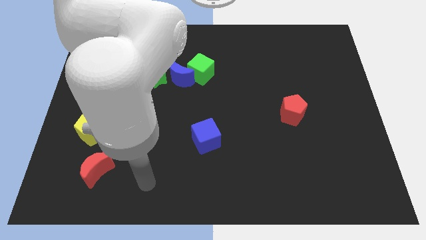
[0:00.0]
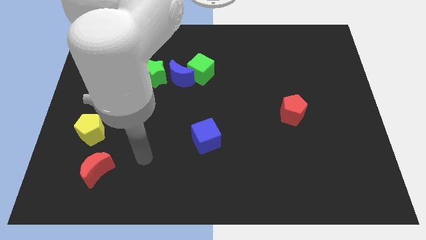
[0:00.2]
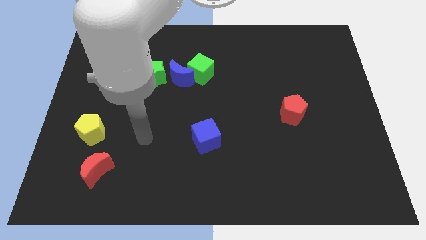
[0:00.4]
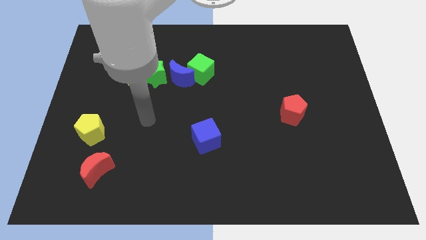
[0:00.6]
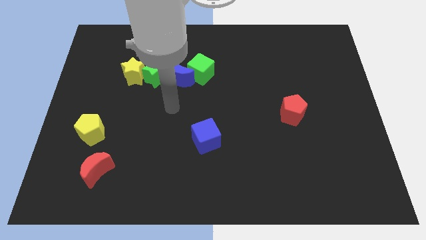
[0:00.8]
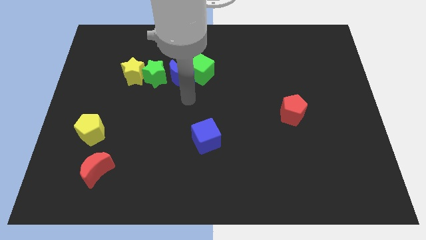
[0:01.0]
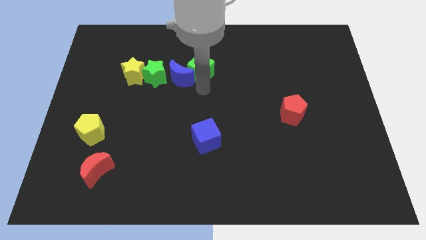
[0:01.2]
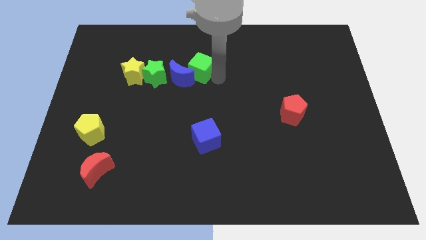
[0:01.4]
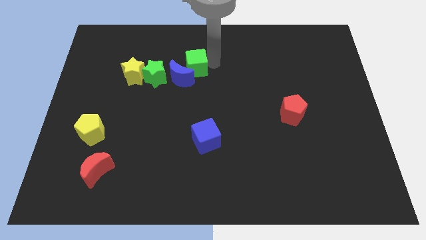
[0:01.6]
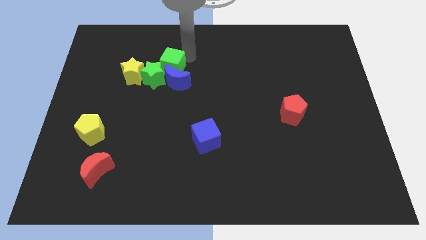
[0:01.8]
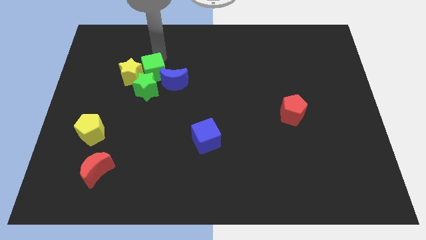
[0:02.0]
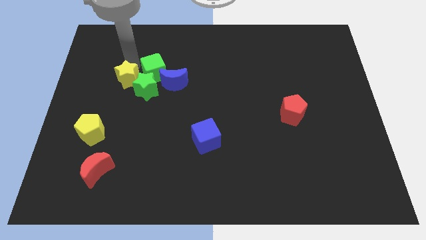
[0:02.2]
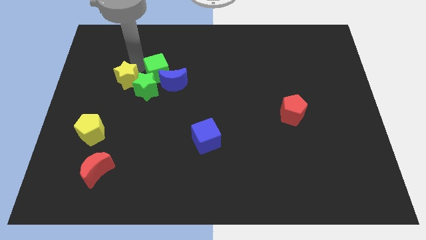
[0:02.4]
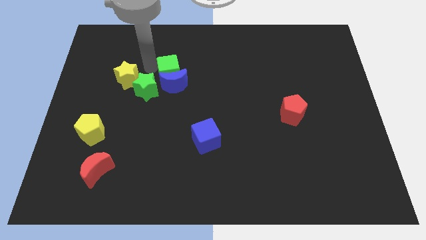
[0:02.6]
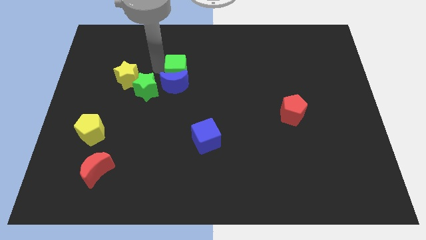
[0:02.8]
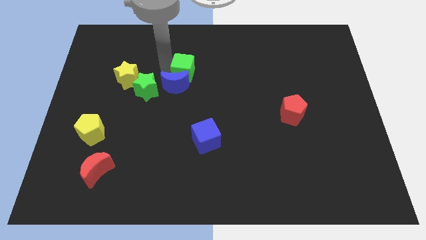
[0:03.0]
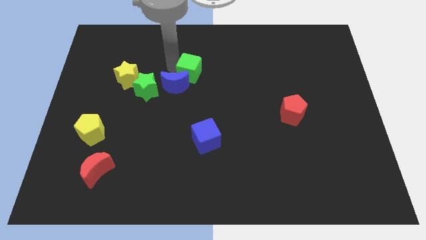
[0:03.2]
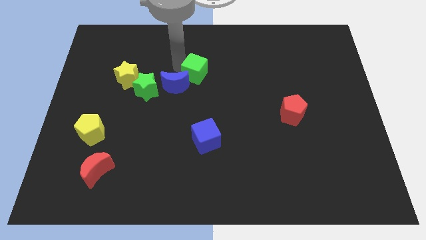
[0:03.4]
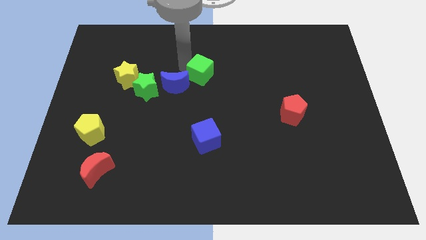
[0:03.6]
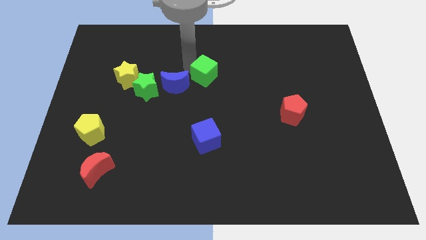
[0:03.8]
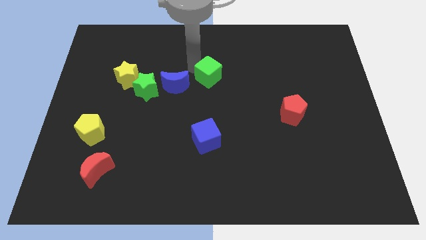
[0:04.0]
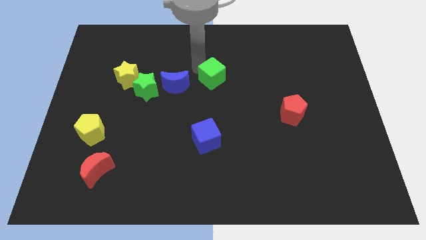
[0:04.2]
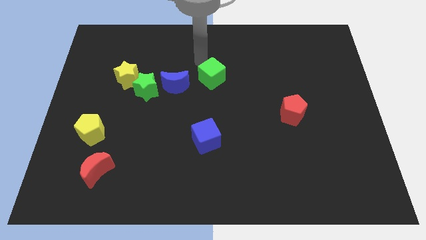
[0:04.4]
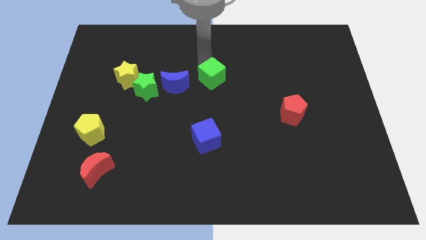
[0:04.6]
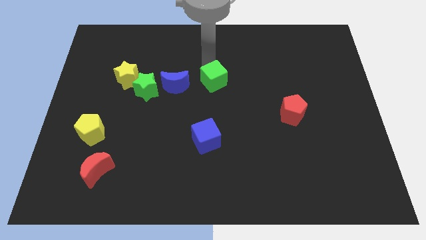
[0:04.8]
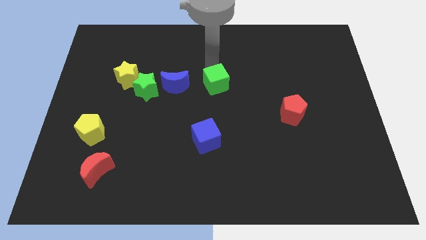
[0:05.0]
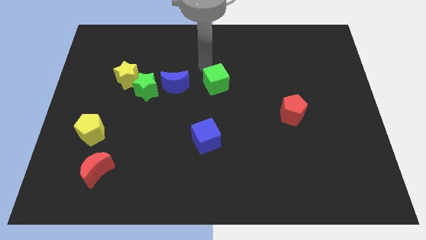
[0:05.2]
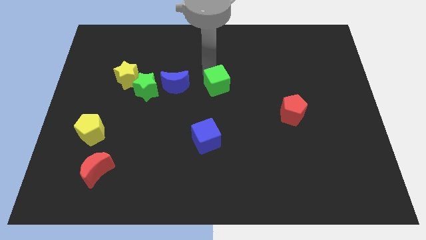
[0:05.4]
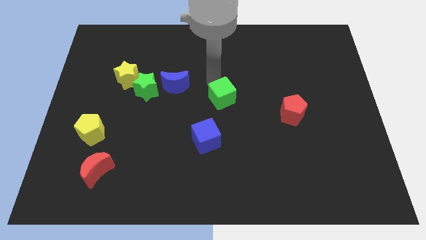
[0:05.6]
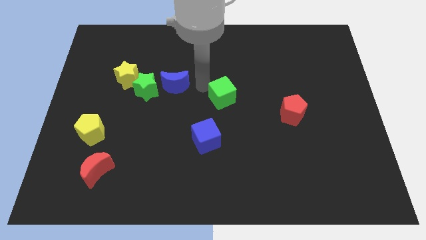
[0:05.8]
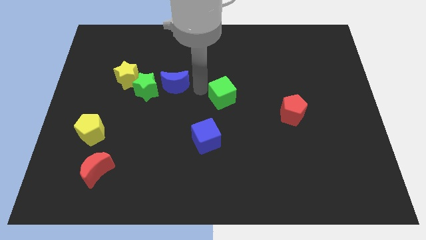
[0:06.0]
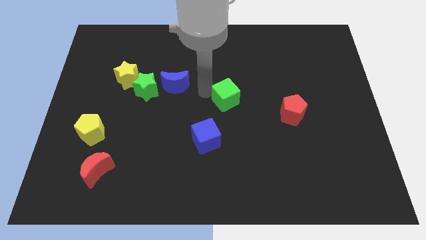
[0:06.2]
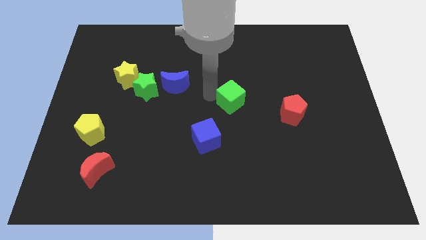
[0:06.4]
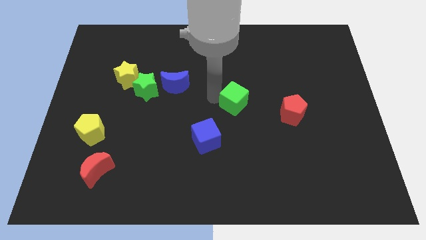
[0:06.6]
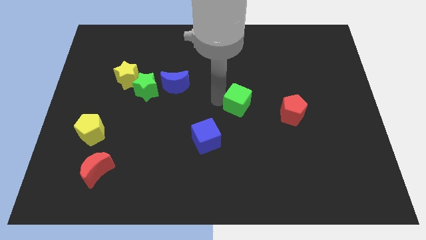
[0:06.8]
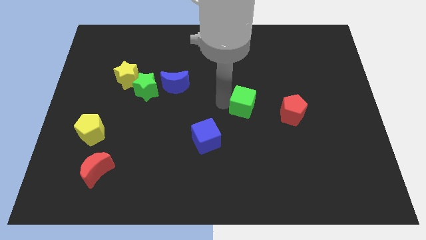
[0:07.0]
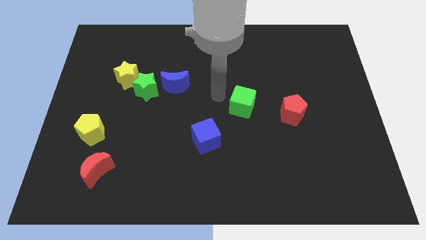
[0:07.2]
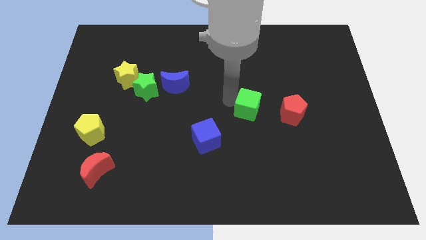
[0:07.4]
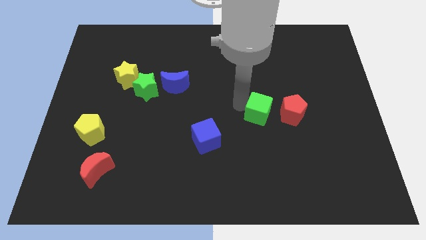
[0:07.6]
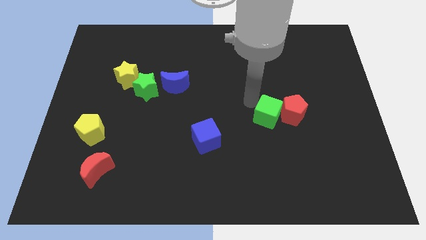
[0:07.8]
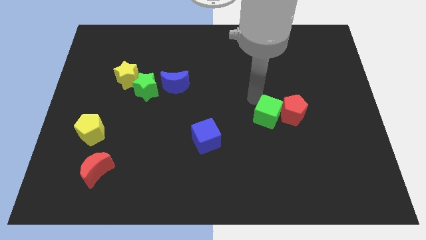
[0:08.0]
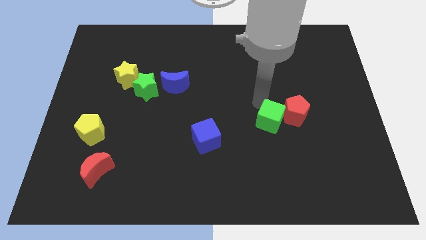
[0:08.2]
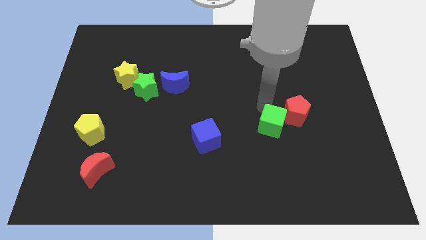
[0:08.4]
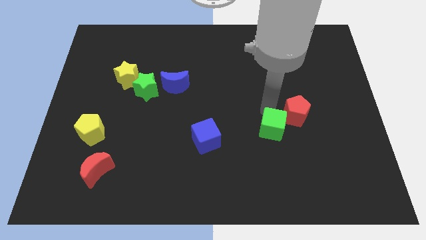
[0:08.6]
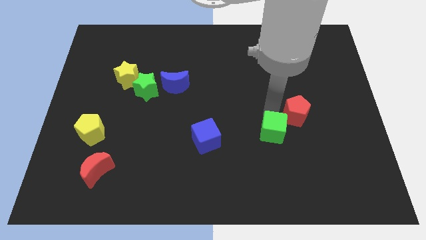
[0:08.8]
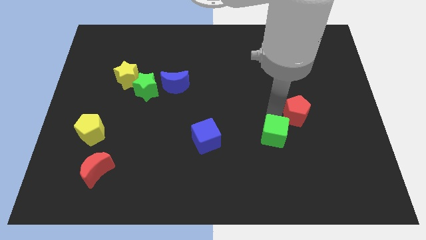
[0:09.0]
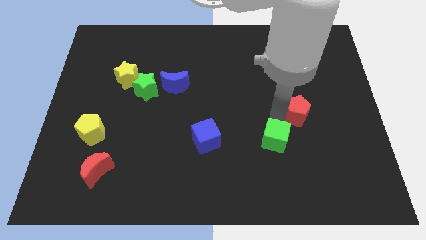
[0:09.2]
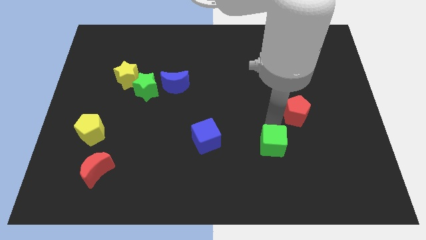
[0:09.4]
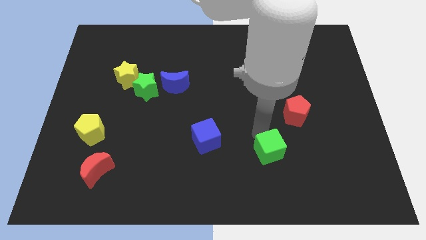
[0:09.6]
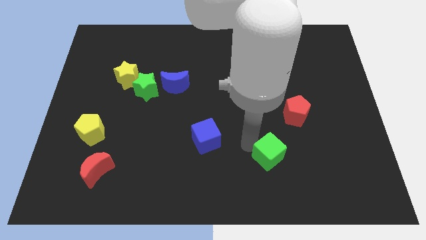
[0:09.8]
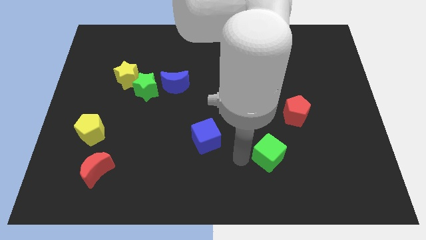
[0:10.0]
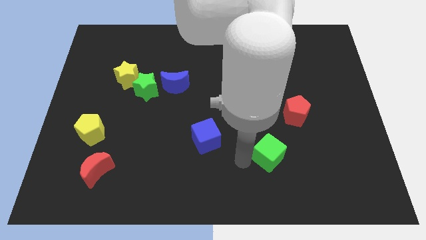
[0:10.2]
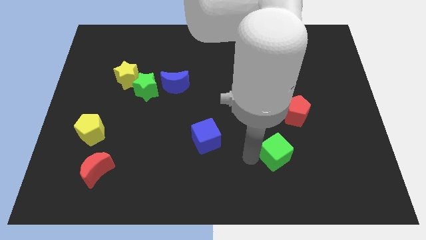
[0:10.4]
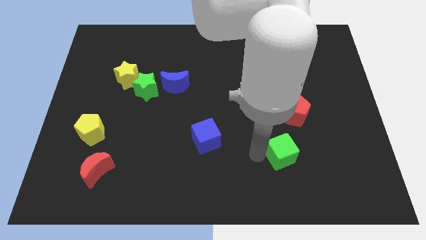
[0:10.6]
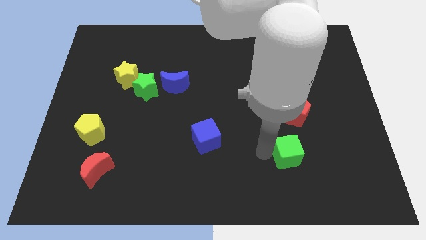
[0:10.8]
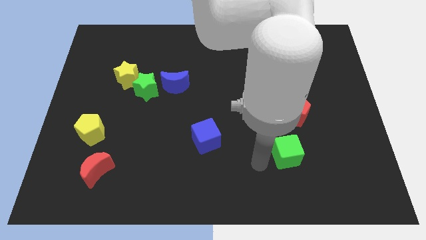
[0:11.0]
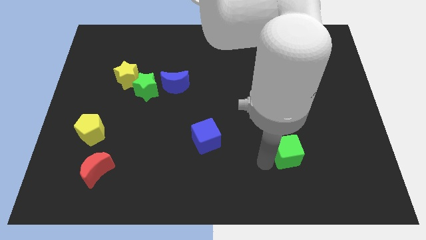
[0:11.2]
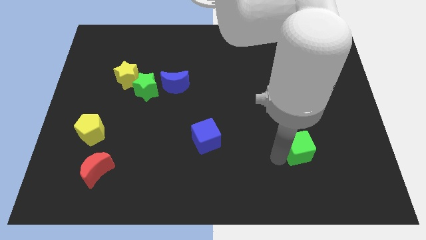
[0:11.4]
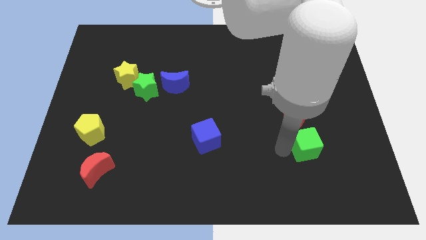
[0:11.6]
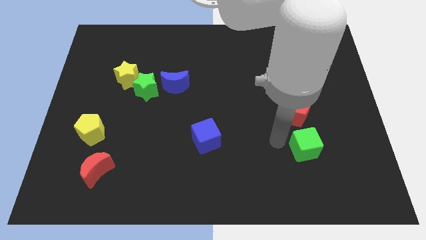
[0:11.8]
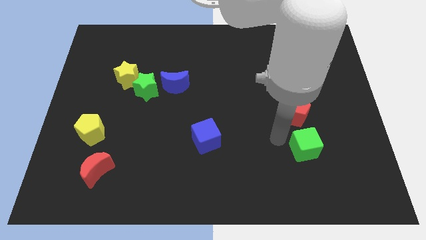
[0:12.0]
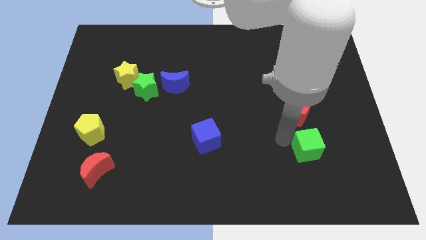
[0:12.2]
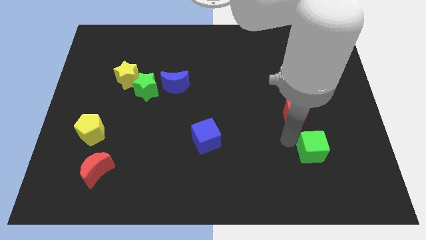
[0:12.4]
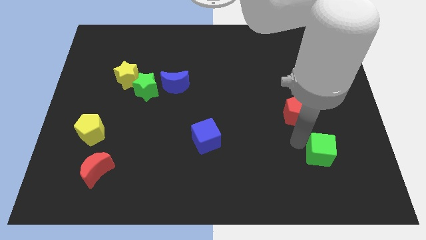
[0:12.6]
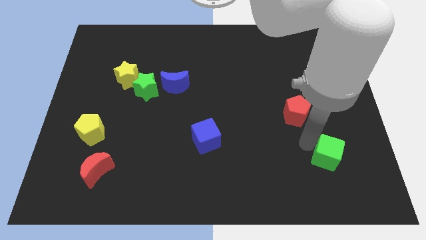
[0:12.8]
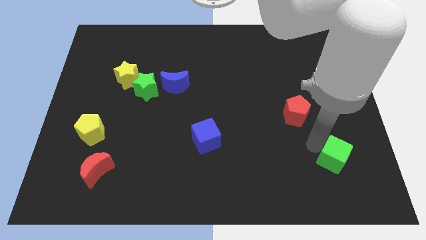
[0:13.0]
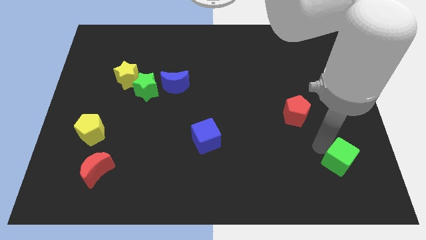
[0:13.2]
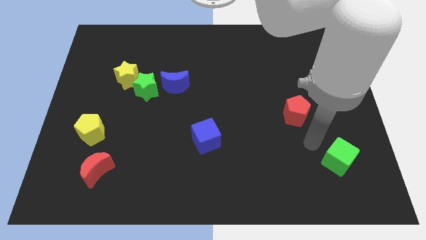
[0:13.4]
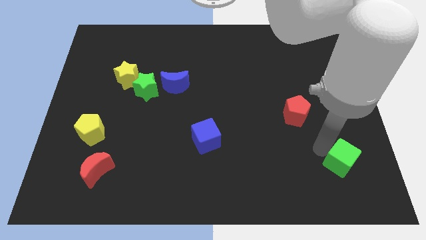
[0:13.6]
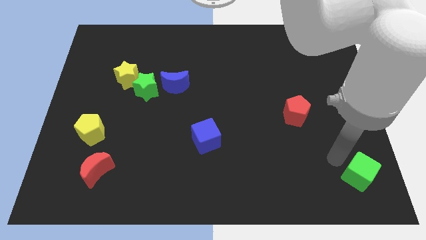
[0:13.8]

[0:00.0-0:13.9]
move the green cube to the bottom right
